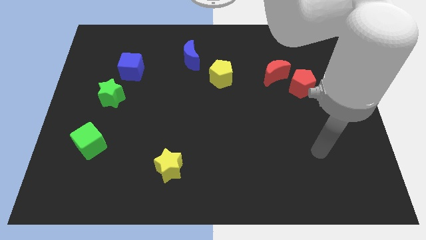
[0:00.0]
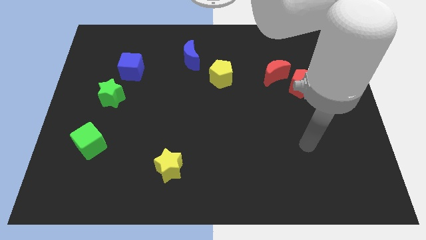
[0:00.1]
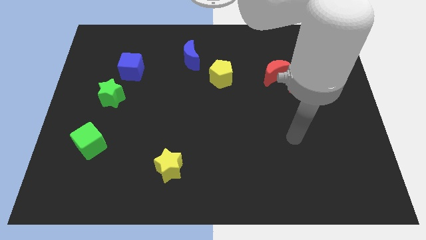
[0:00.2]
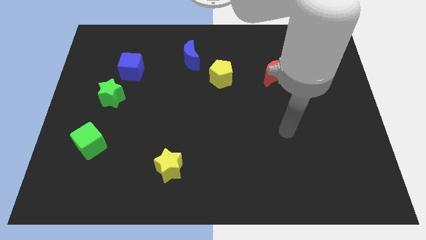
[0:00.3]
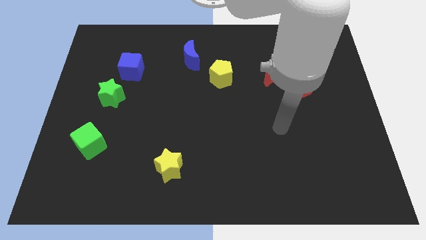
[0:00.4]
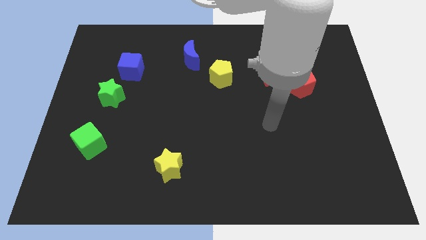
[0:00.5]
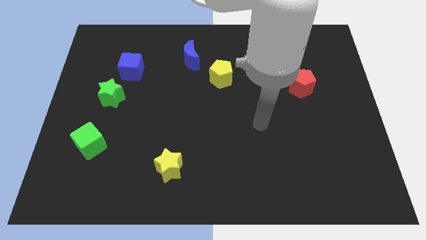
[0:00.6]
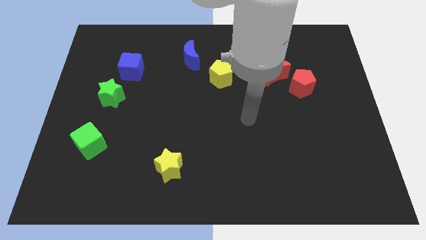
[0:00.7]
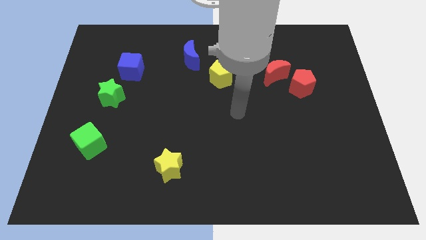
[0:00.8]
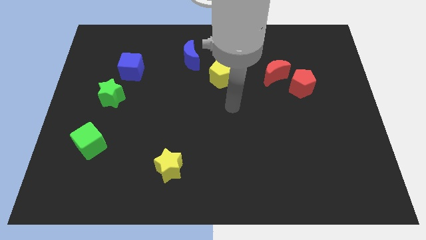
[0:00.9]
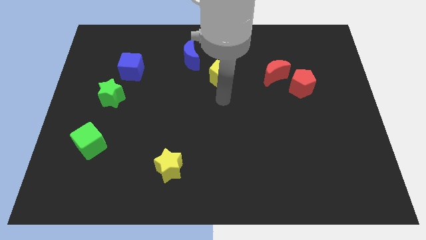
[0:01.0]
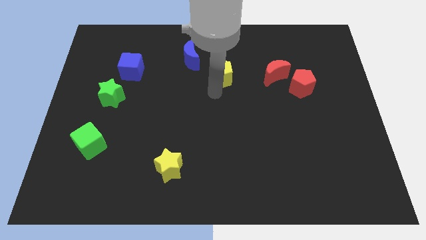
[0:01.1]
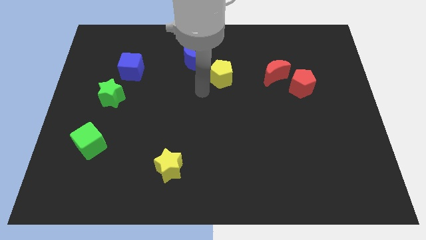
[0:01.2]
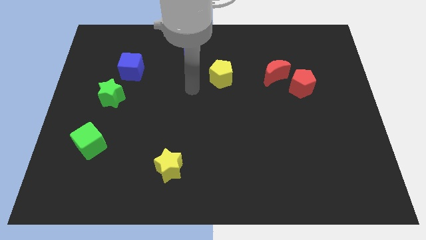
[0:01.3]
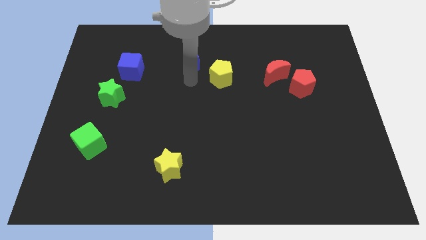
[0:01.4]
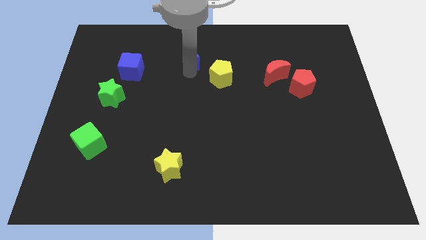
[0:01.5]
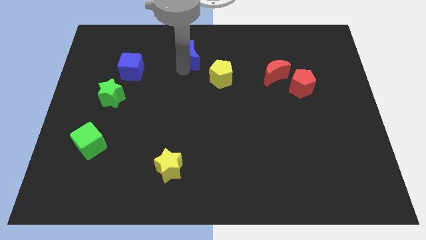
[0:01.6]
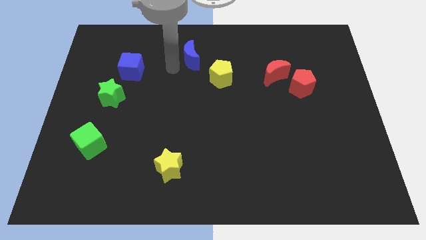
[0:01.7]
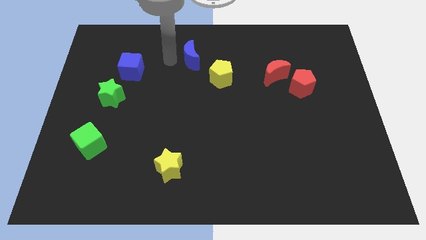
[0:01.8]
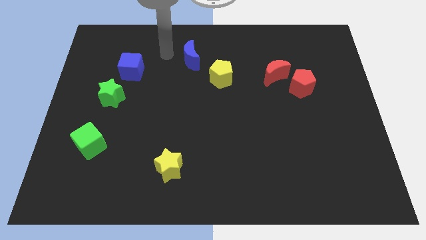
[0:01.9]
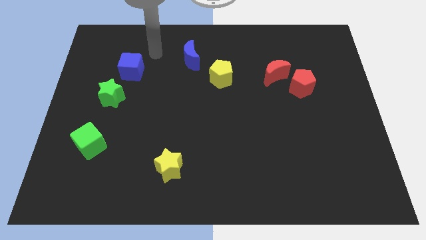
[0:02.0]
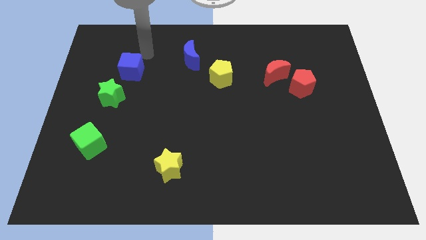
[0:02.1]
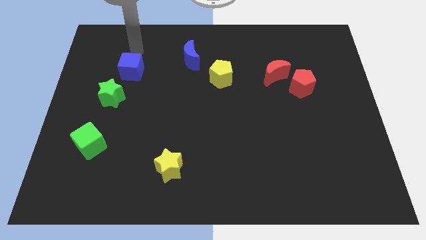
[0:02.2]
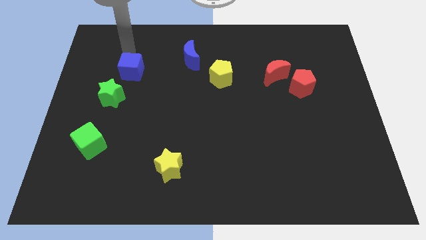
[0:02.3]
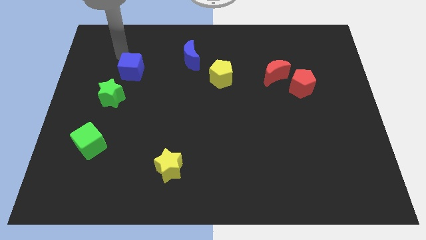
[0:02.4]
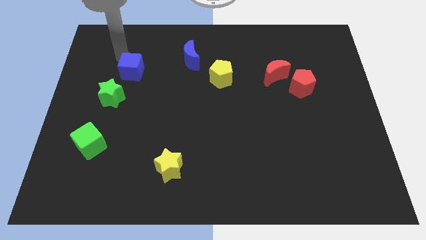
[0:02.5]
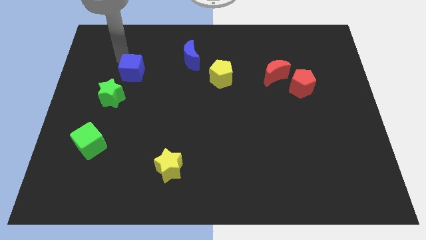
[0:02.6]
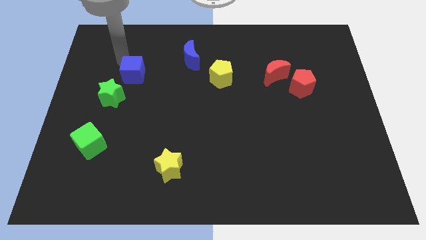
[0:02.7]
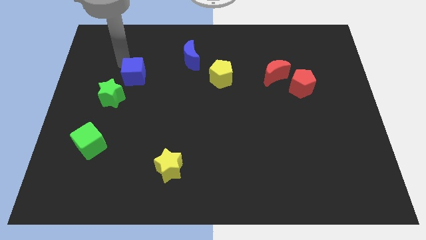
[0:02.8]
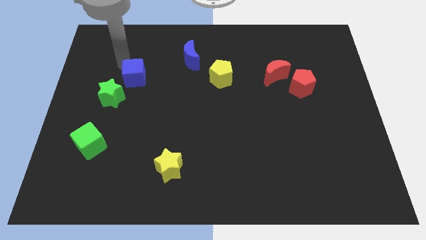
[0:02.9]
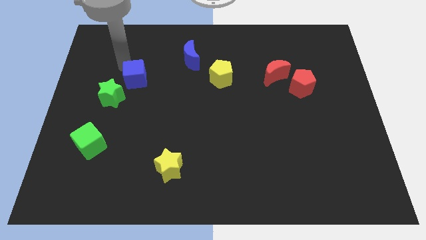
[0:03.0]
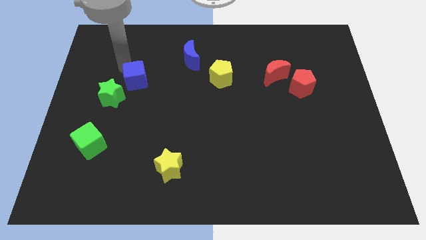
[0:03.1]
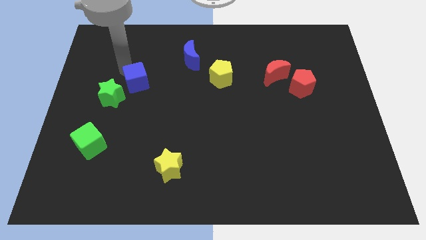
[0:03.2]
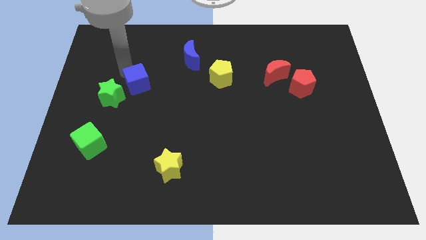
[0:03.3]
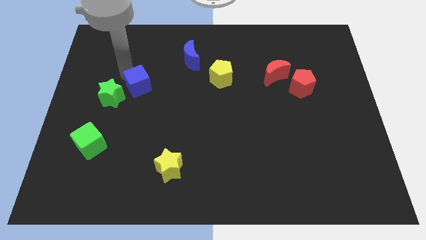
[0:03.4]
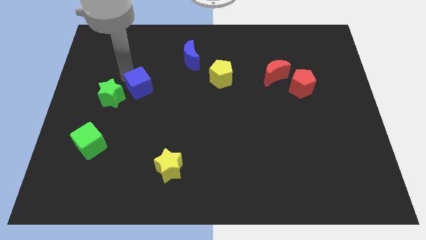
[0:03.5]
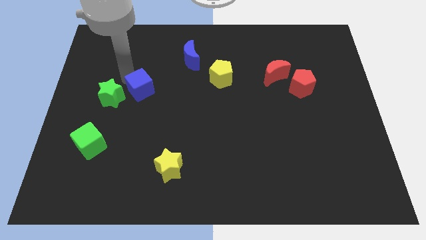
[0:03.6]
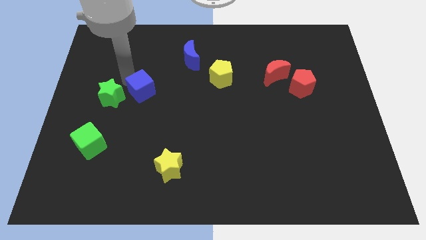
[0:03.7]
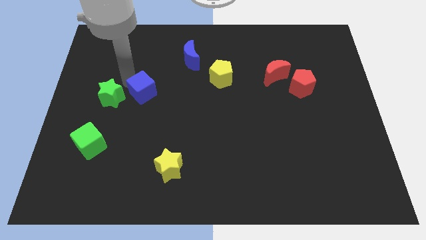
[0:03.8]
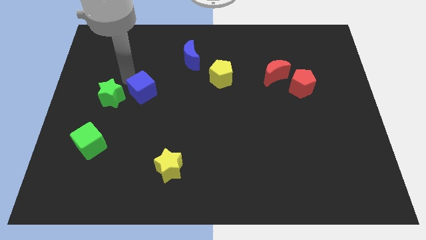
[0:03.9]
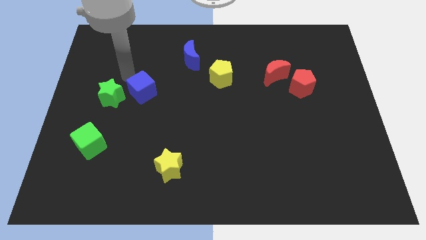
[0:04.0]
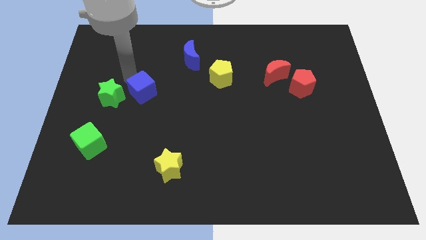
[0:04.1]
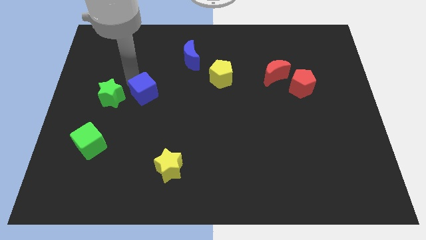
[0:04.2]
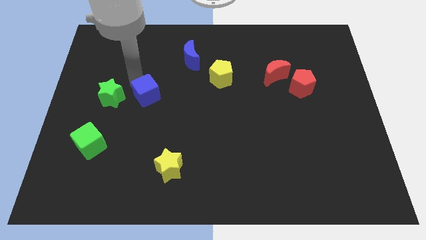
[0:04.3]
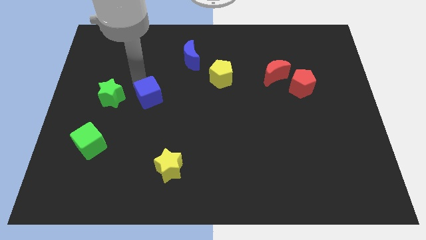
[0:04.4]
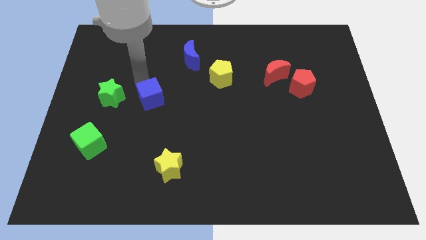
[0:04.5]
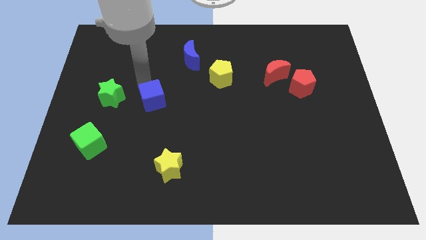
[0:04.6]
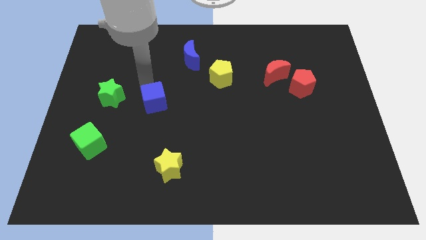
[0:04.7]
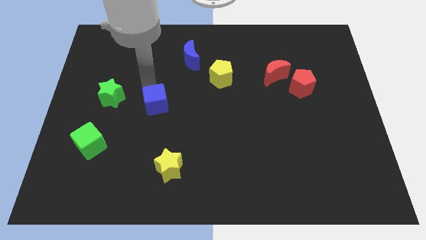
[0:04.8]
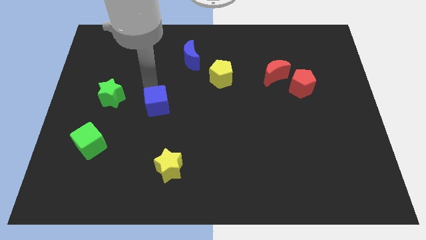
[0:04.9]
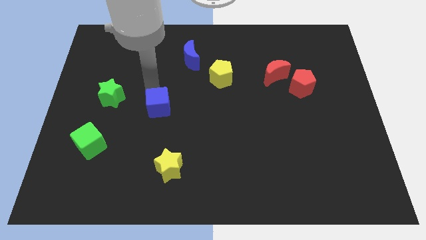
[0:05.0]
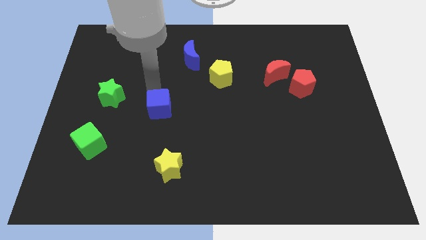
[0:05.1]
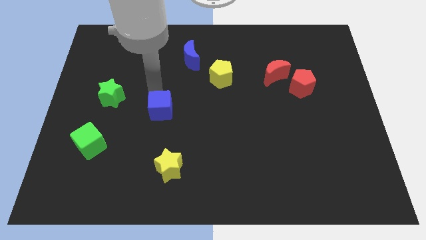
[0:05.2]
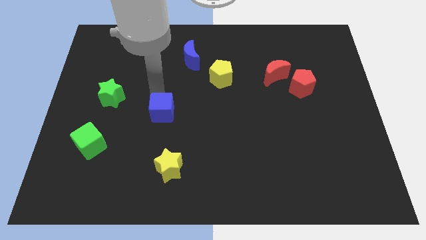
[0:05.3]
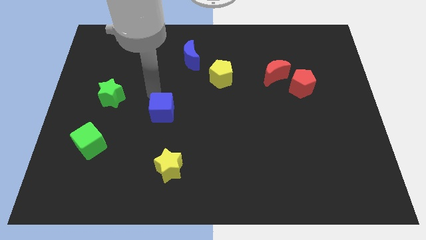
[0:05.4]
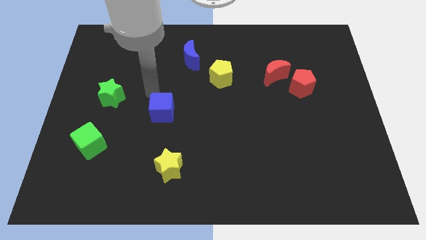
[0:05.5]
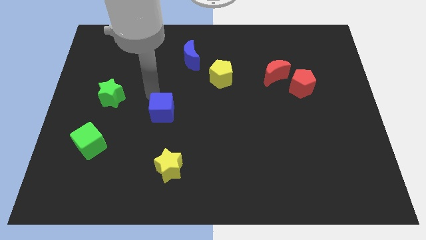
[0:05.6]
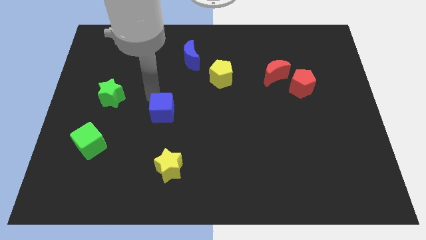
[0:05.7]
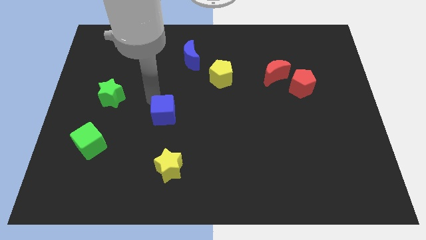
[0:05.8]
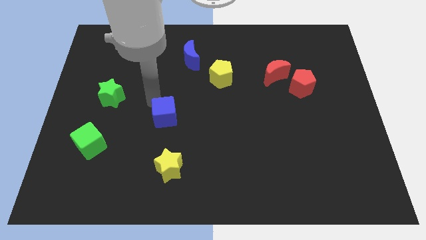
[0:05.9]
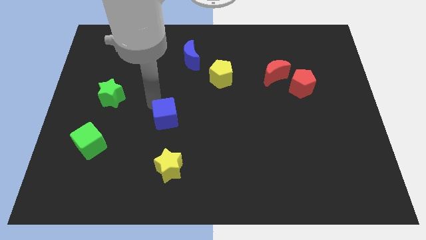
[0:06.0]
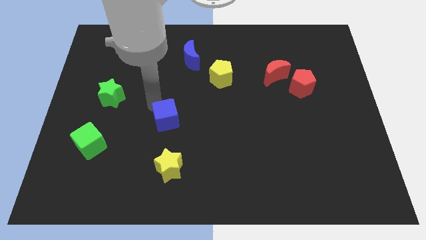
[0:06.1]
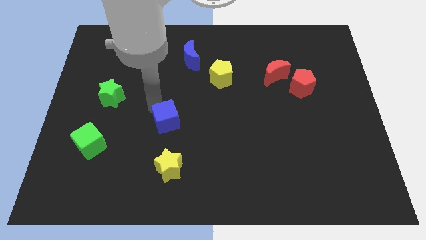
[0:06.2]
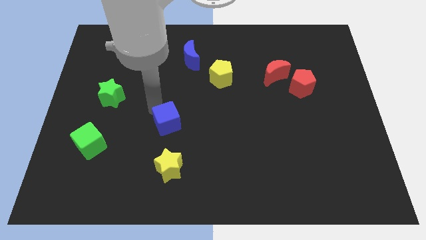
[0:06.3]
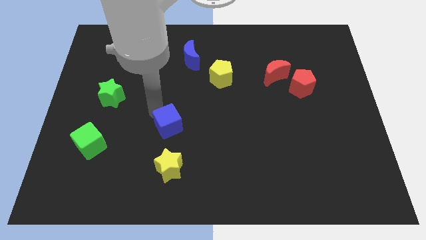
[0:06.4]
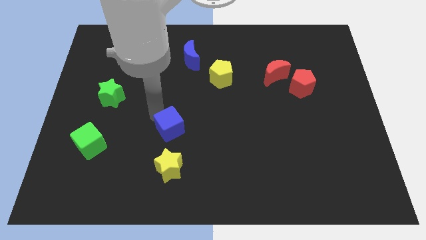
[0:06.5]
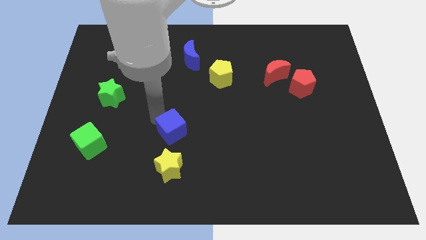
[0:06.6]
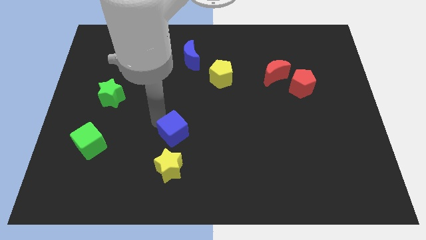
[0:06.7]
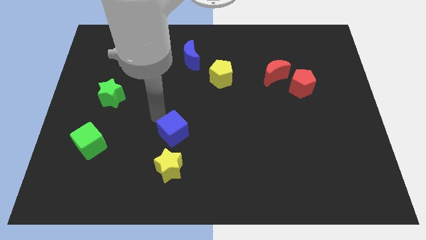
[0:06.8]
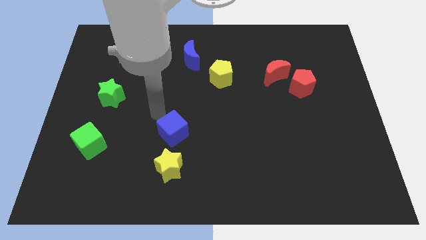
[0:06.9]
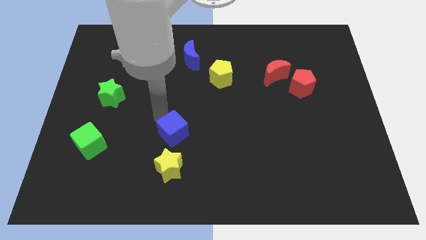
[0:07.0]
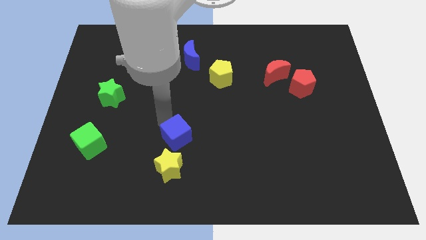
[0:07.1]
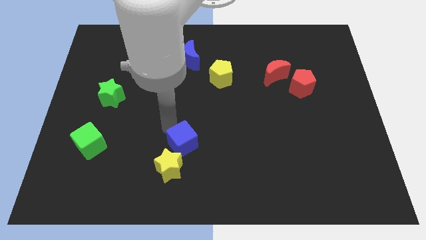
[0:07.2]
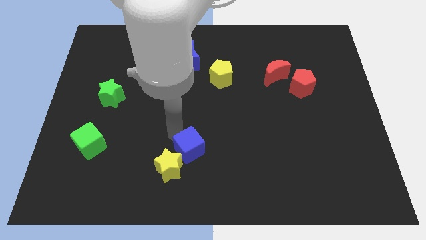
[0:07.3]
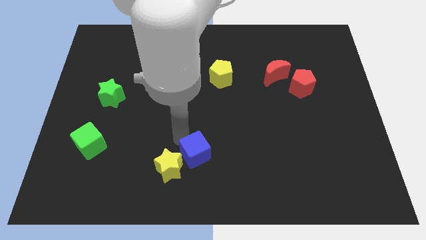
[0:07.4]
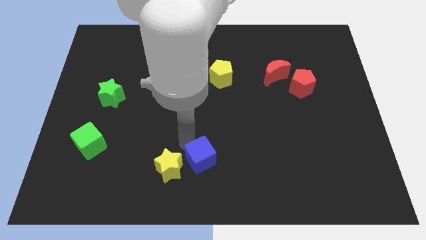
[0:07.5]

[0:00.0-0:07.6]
move the blue cube to the bottom side
